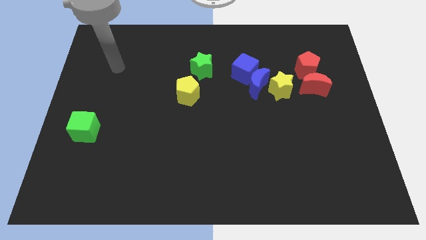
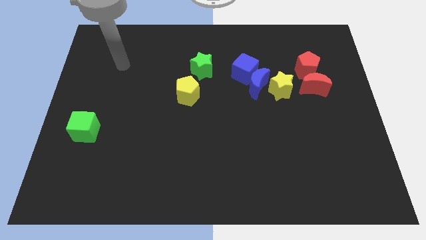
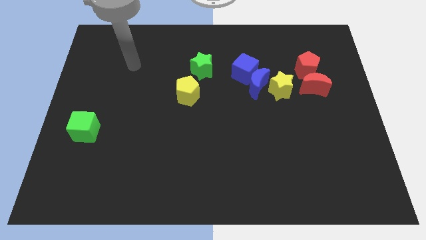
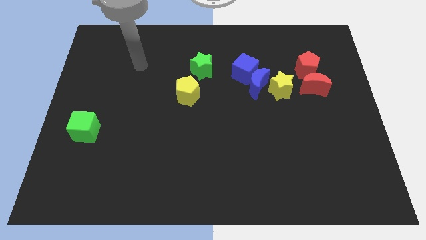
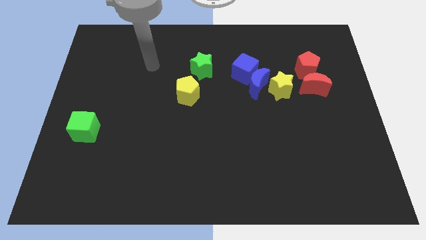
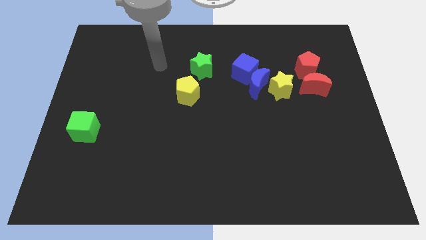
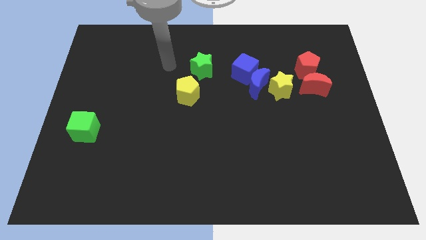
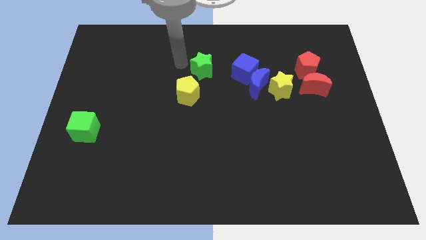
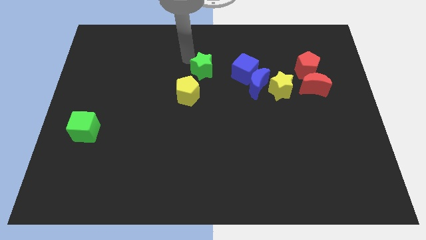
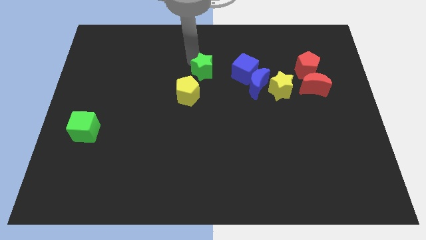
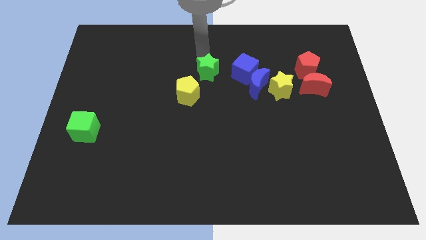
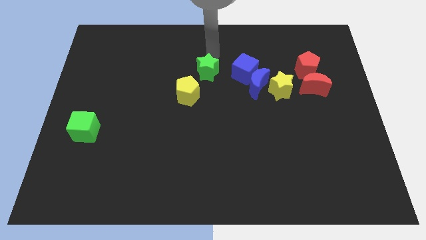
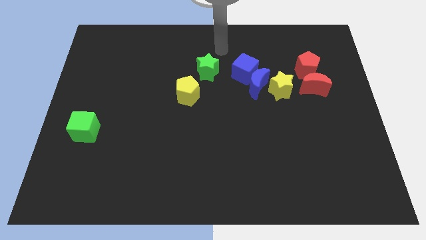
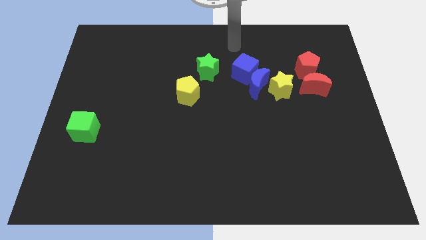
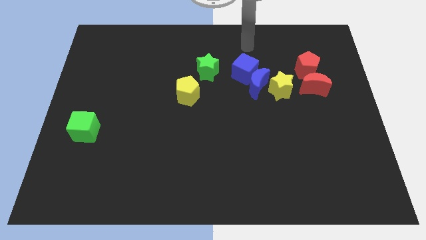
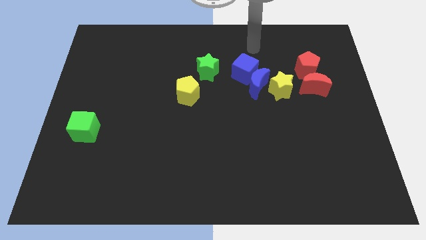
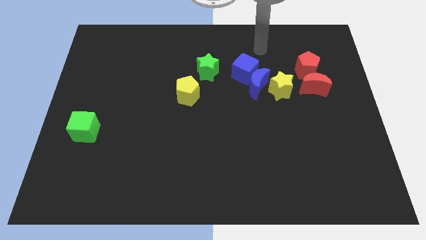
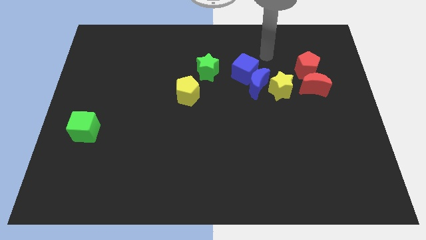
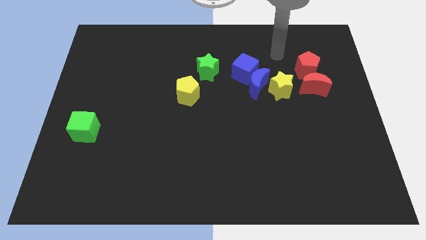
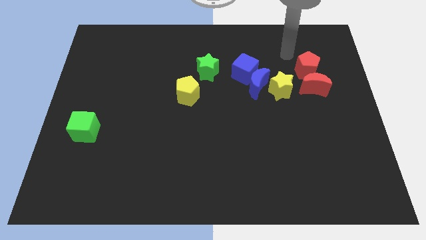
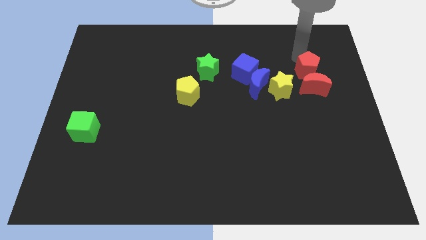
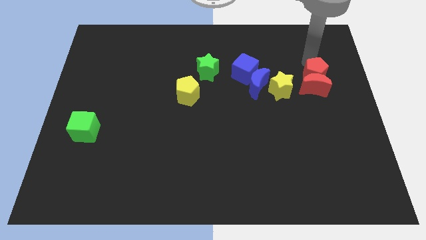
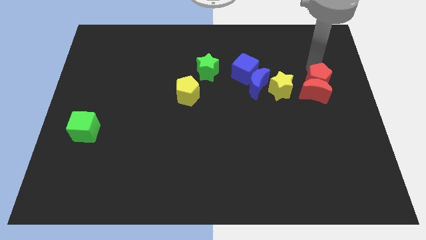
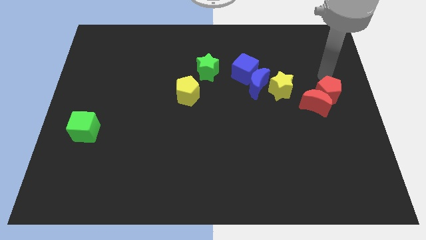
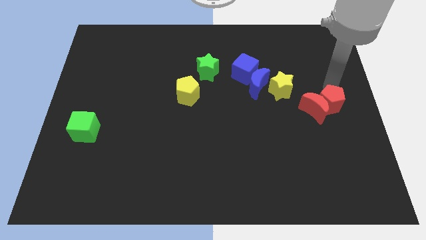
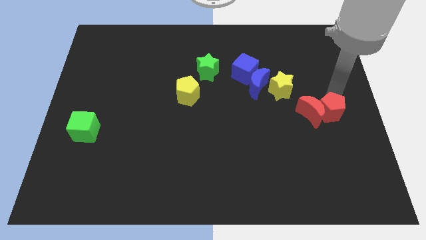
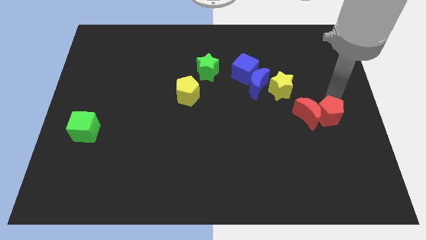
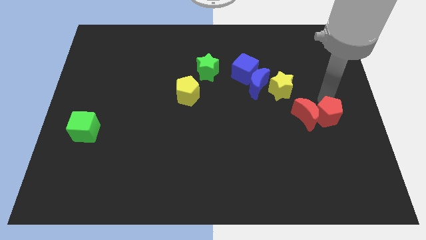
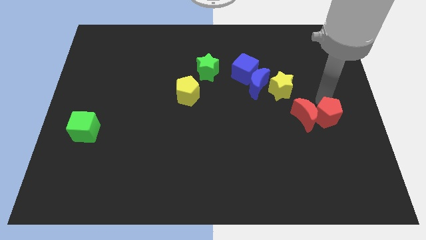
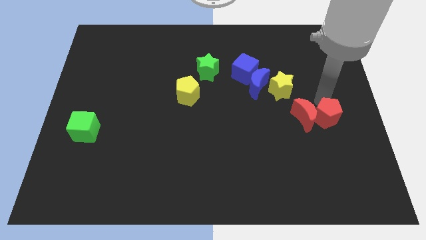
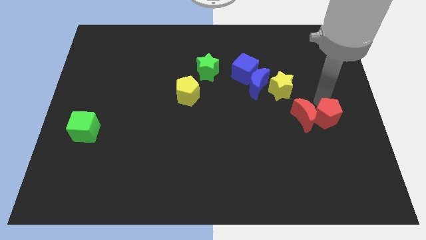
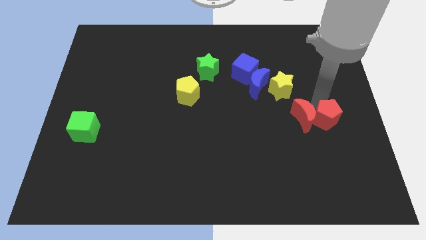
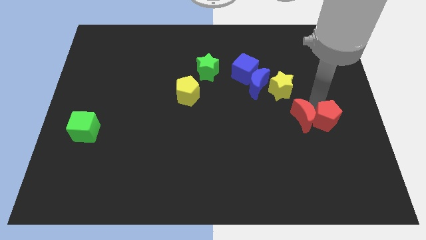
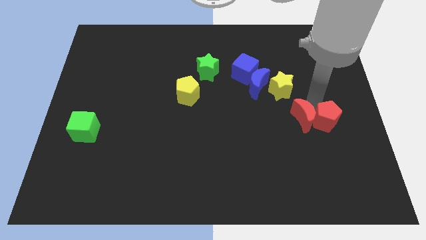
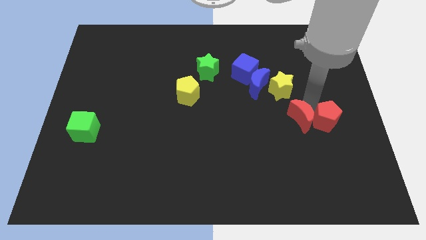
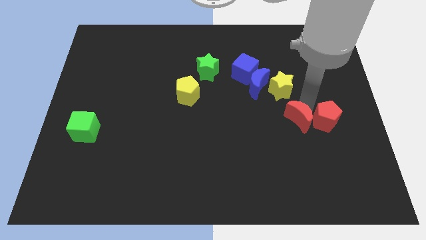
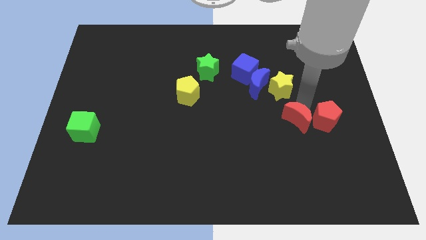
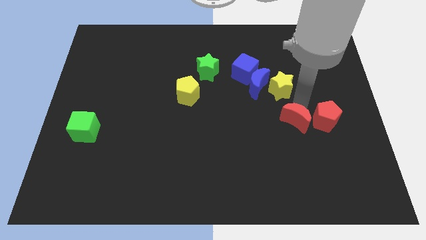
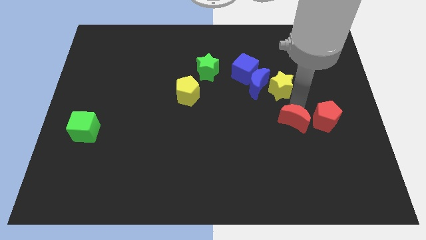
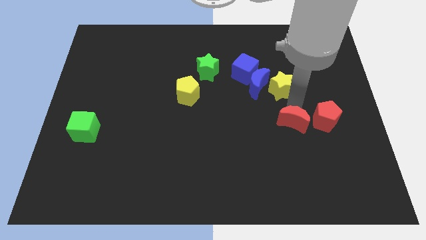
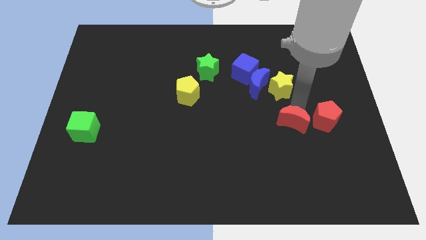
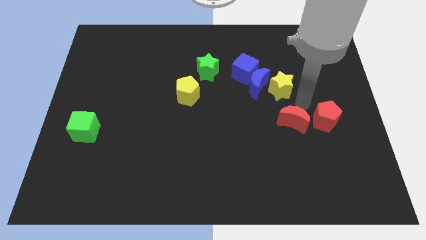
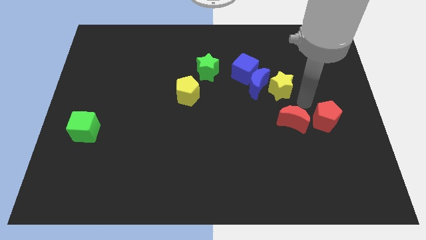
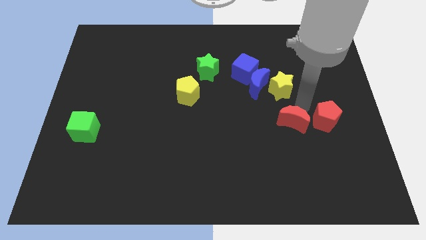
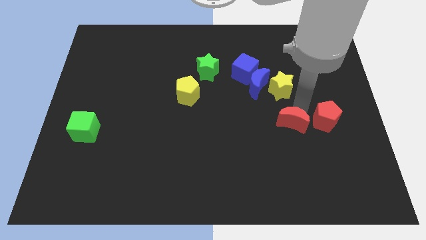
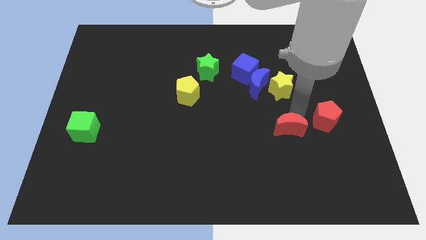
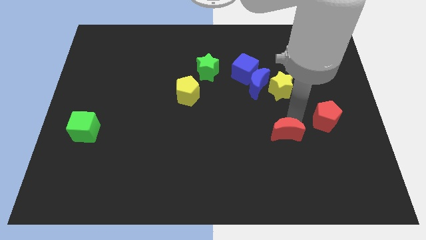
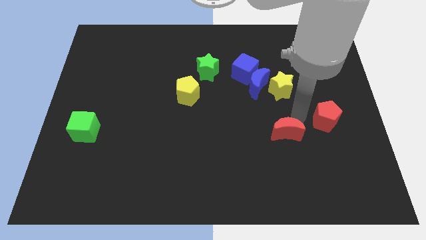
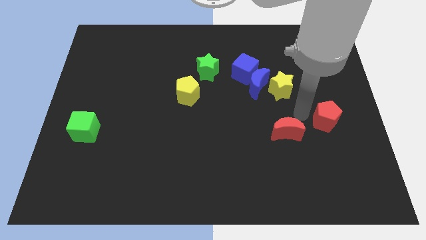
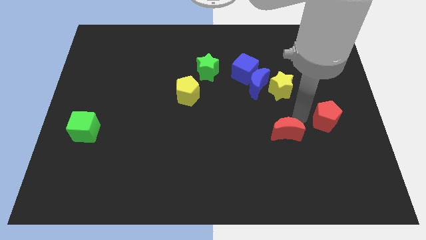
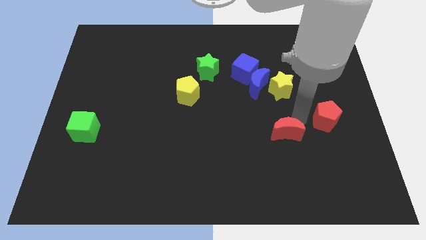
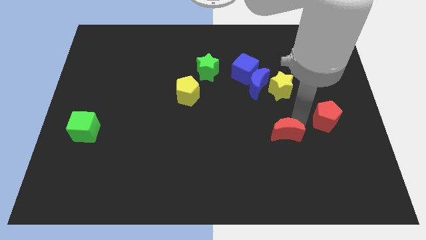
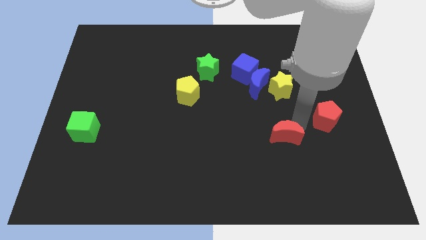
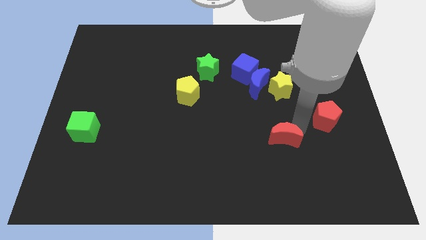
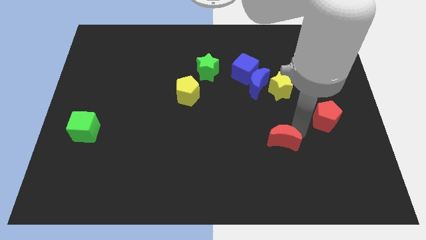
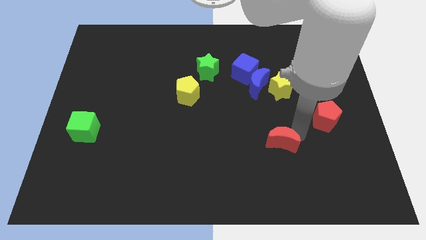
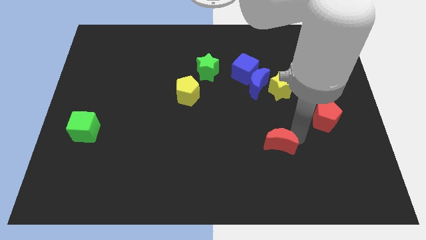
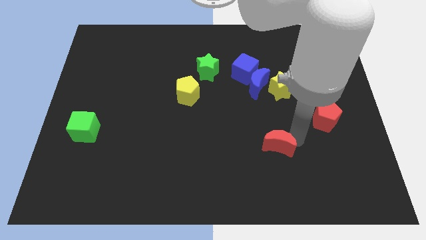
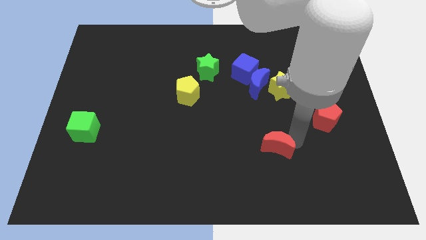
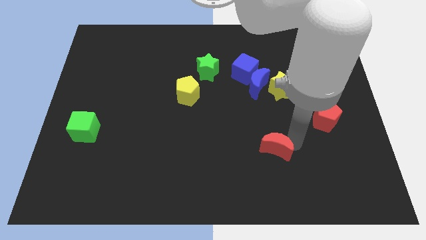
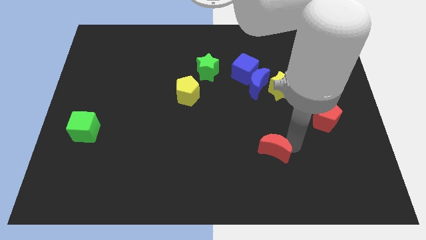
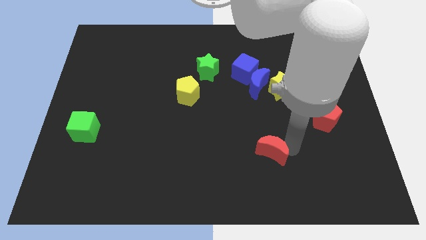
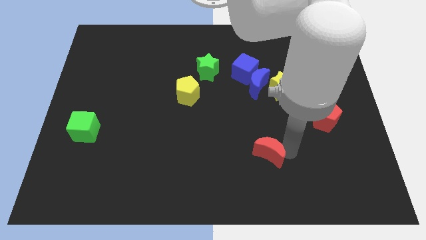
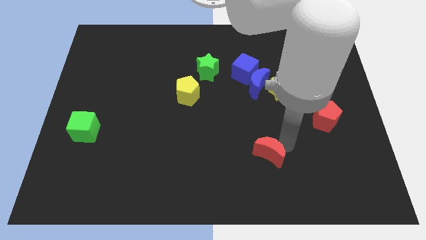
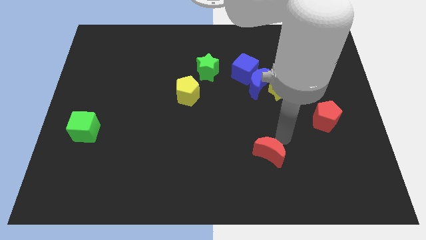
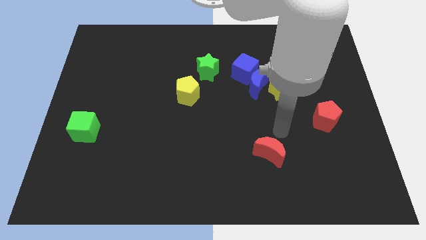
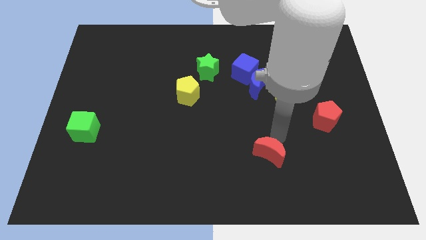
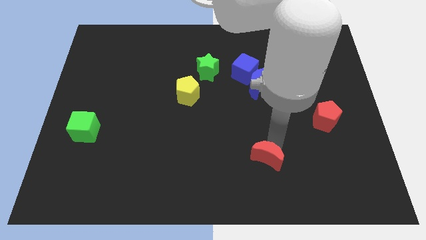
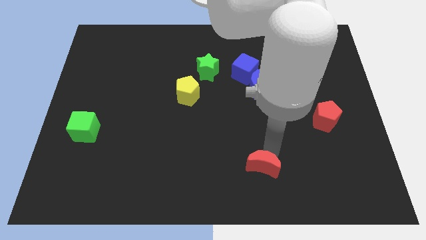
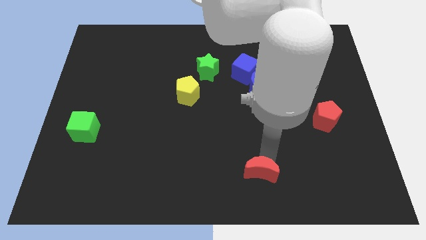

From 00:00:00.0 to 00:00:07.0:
push the red moon to the bottom side
